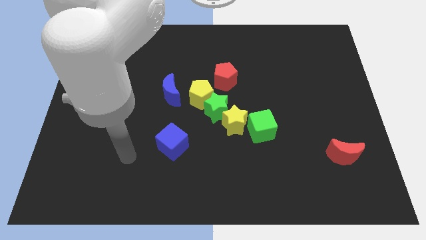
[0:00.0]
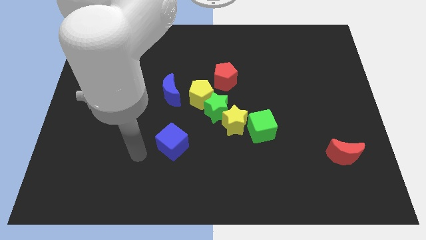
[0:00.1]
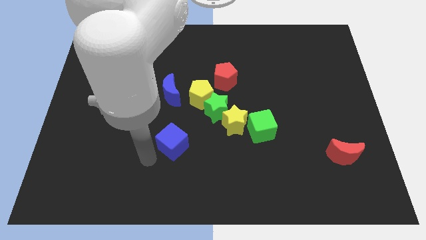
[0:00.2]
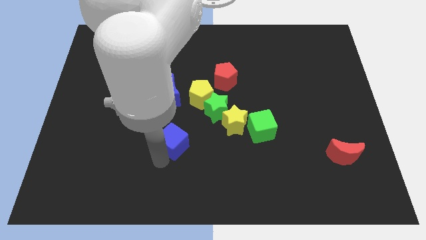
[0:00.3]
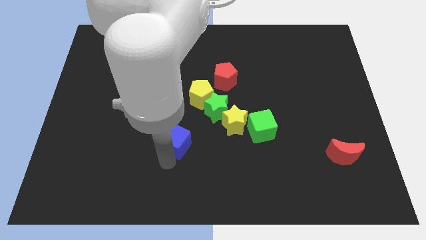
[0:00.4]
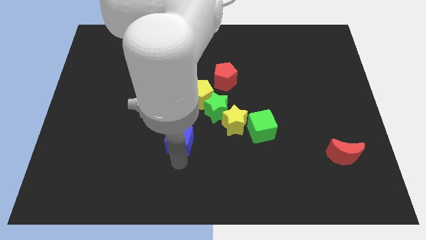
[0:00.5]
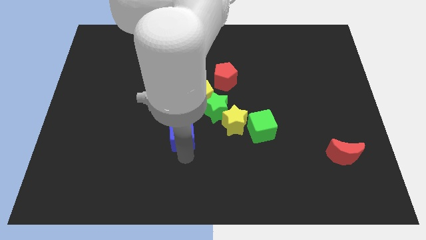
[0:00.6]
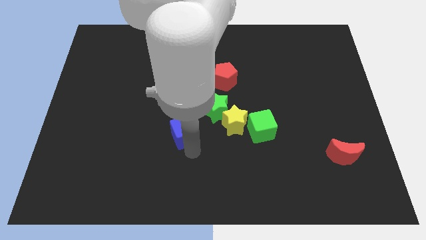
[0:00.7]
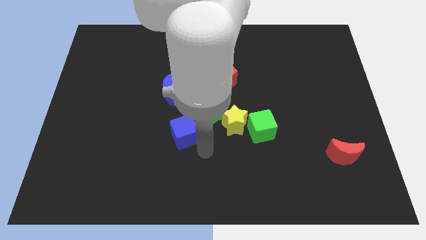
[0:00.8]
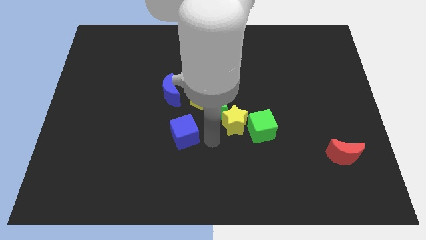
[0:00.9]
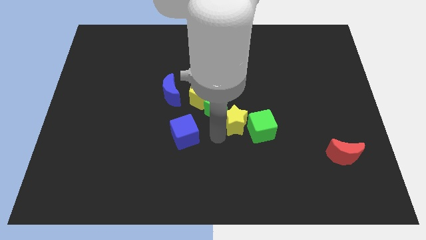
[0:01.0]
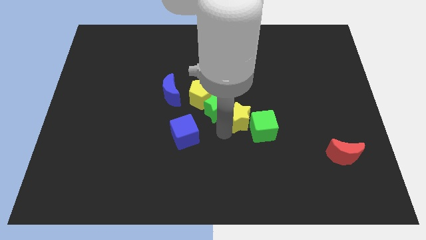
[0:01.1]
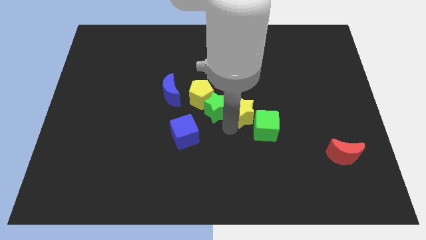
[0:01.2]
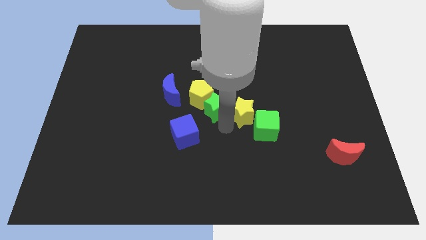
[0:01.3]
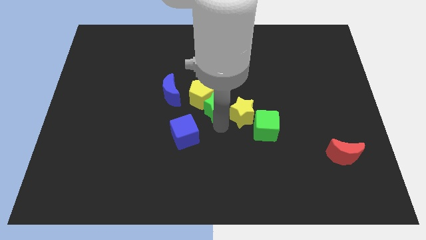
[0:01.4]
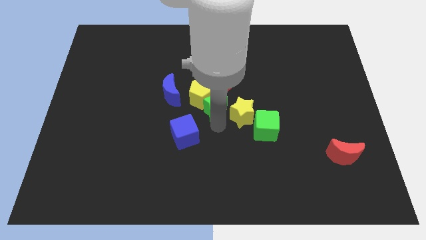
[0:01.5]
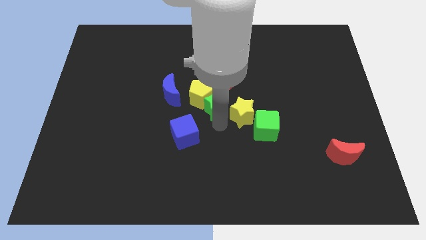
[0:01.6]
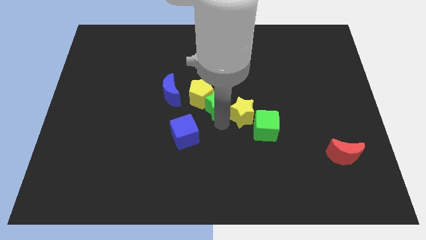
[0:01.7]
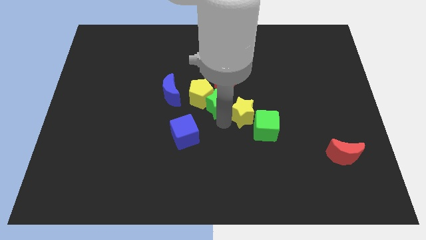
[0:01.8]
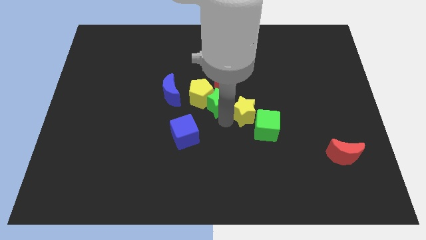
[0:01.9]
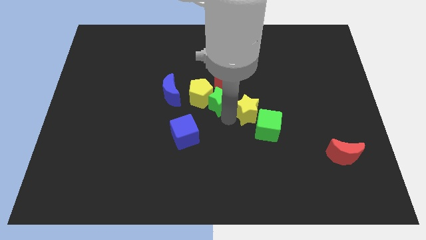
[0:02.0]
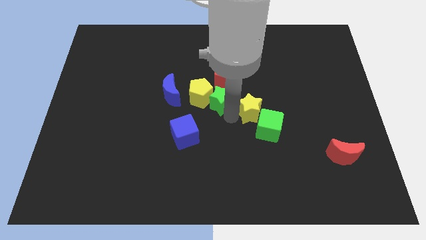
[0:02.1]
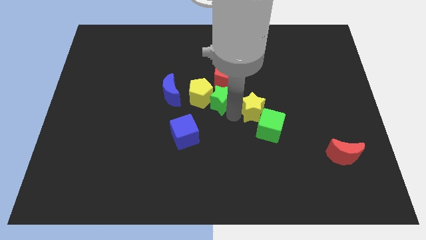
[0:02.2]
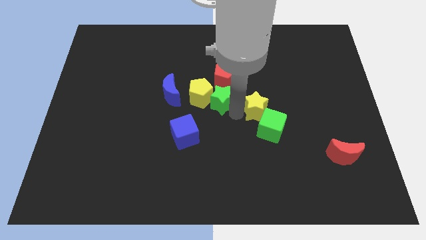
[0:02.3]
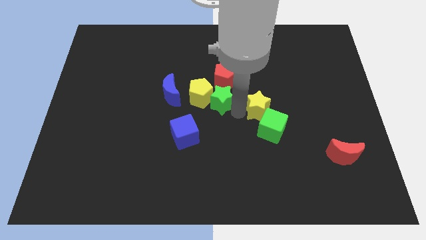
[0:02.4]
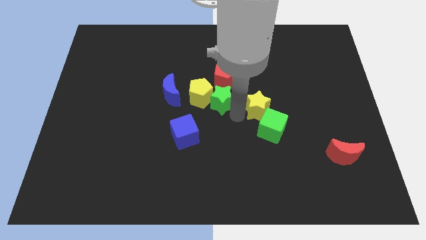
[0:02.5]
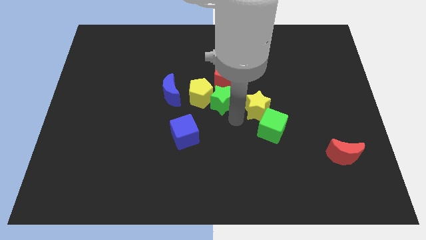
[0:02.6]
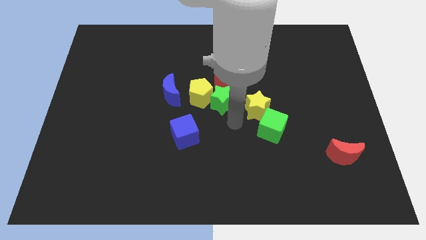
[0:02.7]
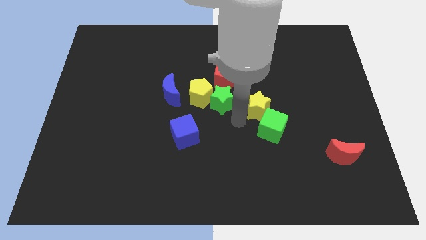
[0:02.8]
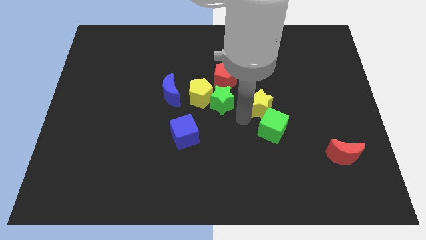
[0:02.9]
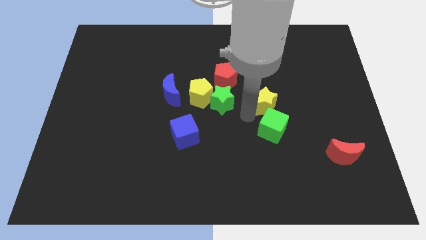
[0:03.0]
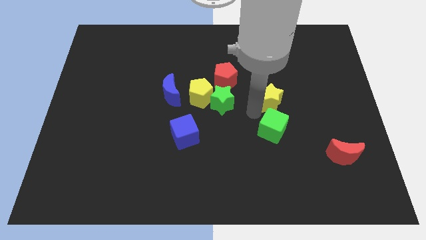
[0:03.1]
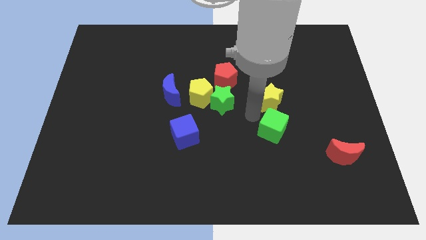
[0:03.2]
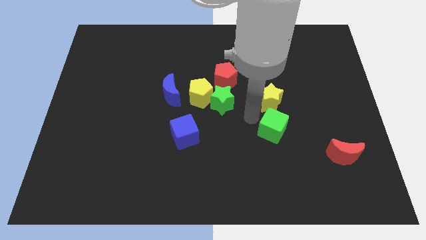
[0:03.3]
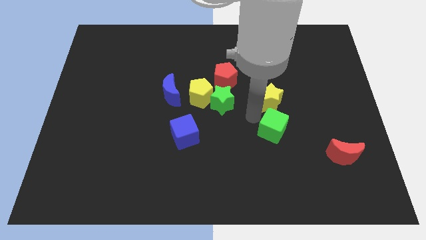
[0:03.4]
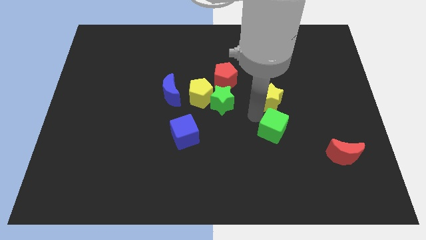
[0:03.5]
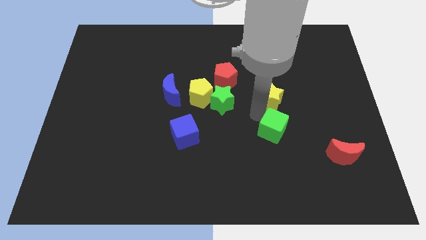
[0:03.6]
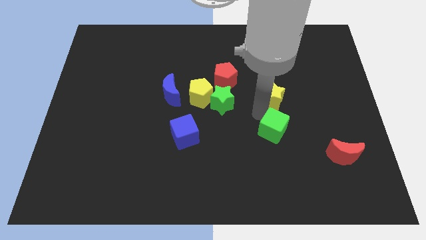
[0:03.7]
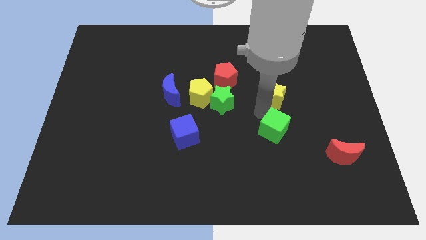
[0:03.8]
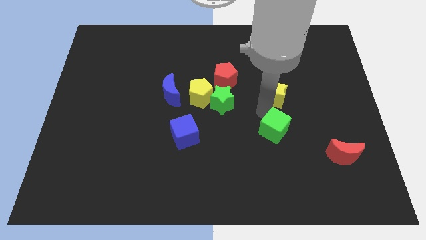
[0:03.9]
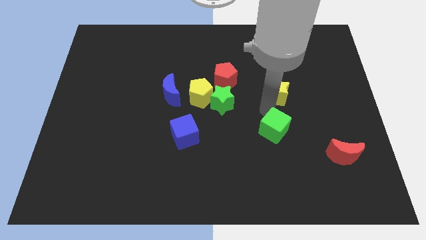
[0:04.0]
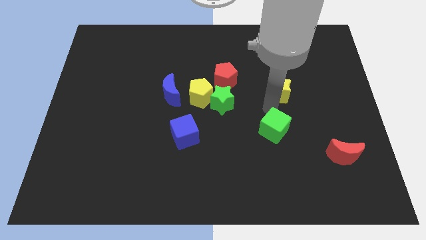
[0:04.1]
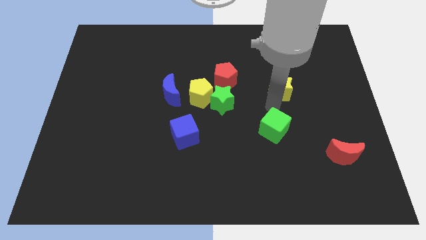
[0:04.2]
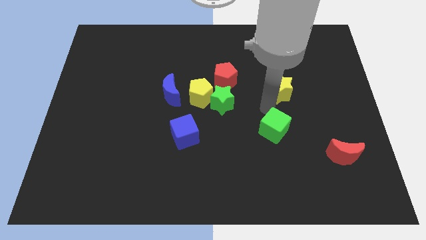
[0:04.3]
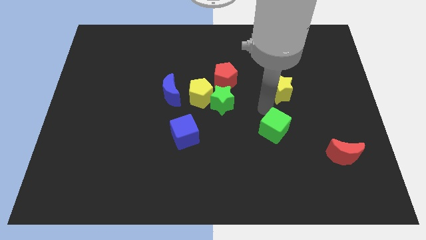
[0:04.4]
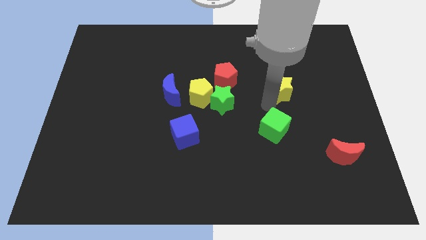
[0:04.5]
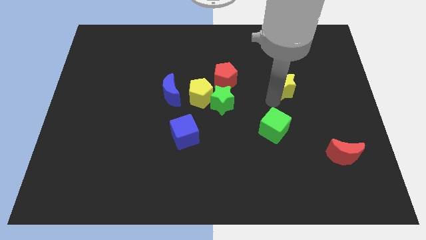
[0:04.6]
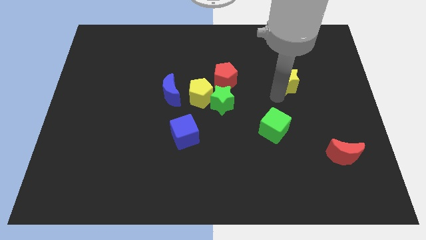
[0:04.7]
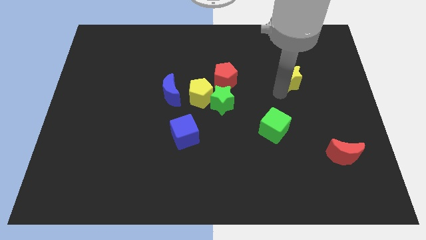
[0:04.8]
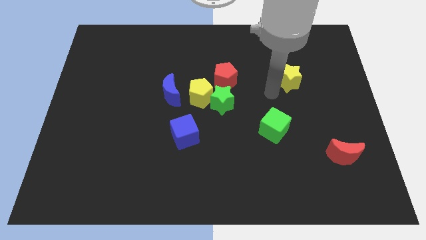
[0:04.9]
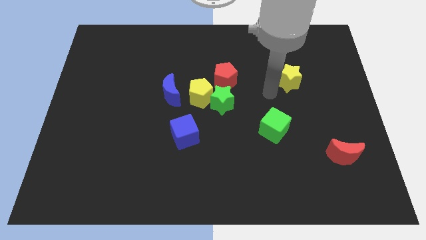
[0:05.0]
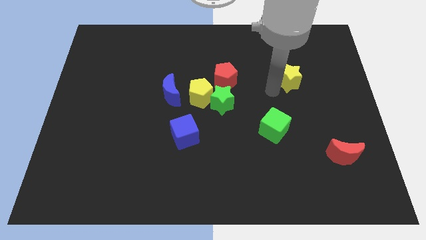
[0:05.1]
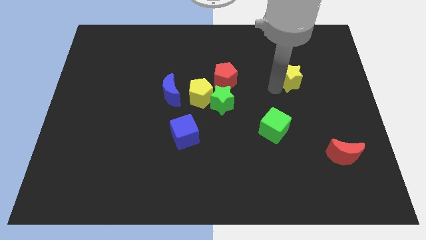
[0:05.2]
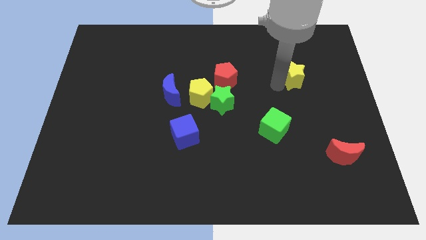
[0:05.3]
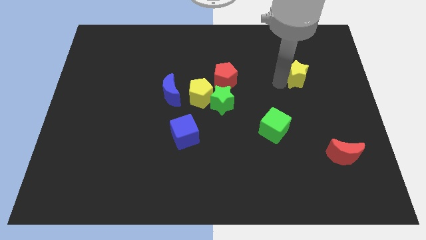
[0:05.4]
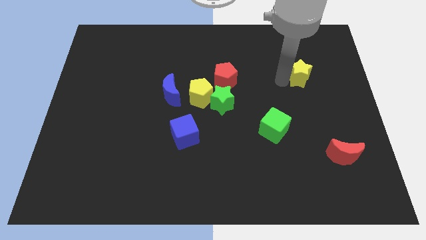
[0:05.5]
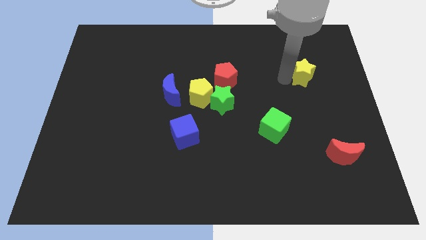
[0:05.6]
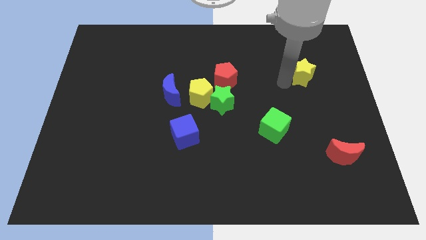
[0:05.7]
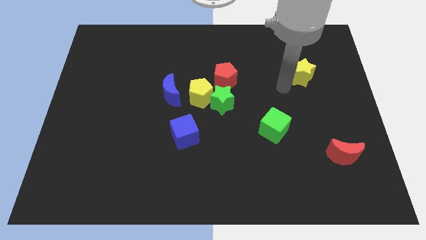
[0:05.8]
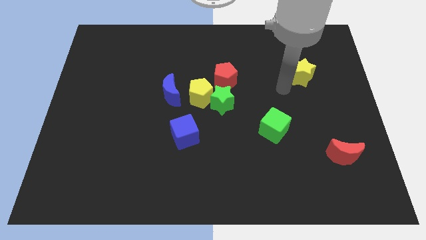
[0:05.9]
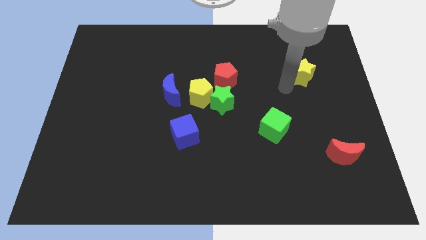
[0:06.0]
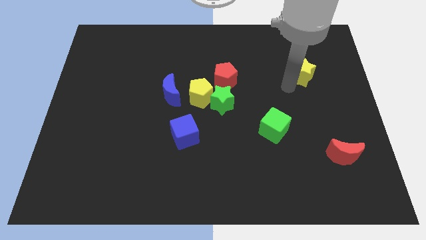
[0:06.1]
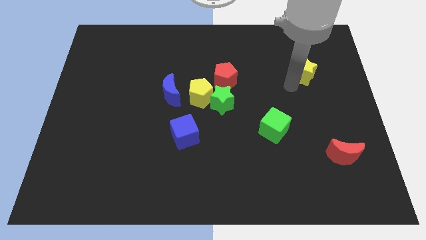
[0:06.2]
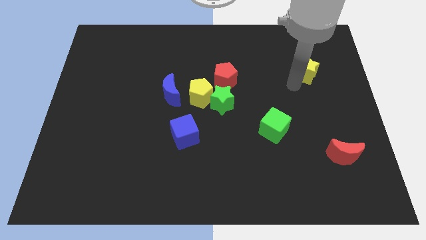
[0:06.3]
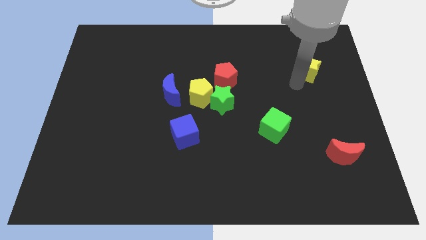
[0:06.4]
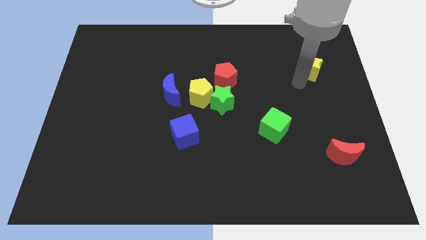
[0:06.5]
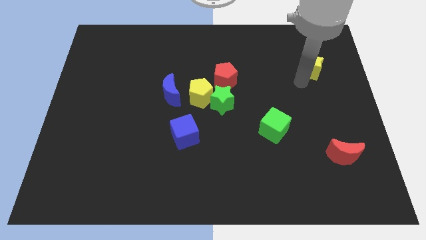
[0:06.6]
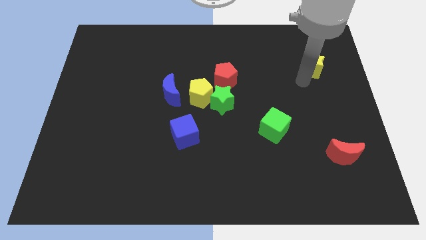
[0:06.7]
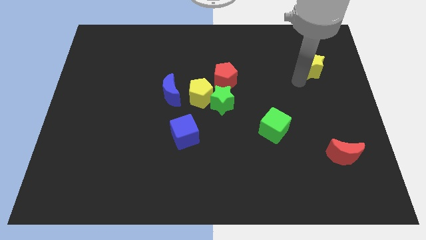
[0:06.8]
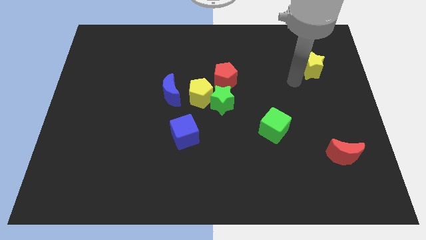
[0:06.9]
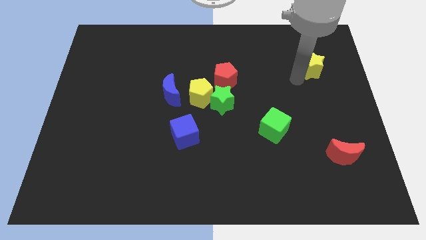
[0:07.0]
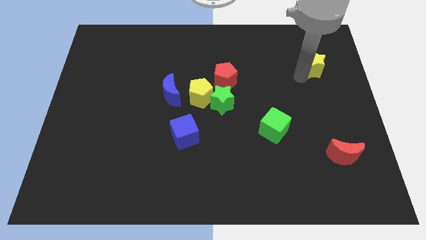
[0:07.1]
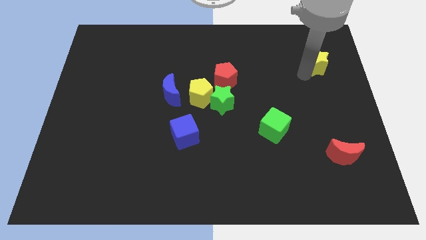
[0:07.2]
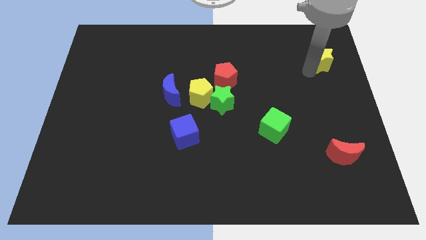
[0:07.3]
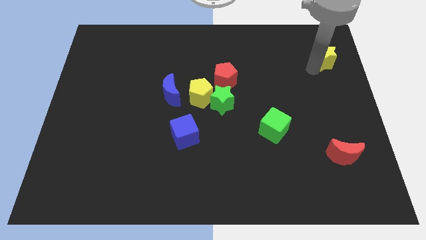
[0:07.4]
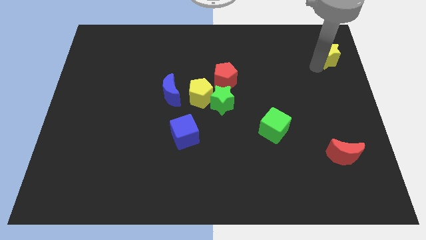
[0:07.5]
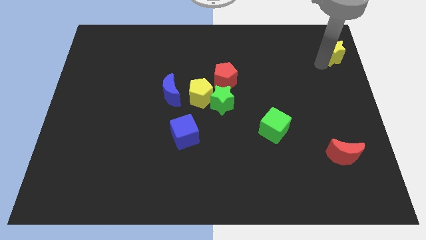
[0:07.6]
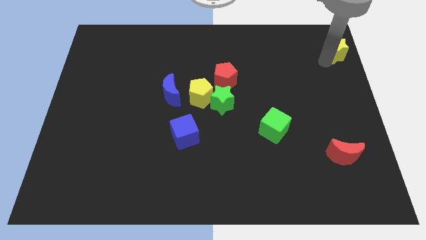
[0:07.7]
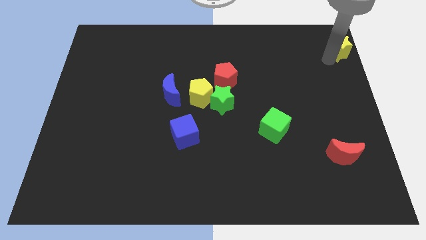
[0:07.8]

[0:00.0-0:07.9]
push the yellow star to the top right
